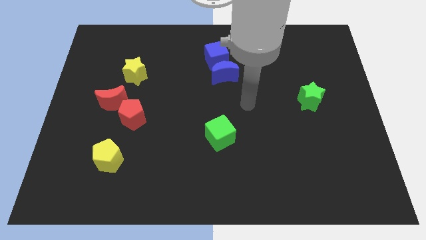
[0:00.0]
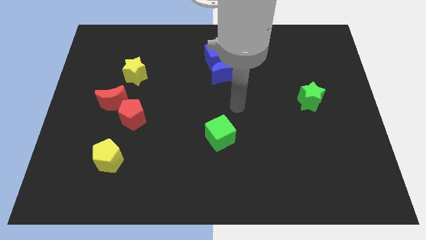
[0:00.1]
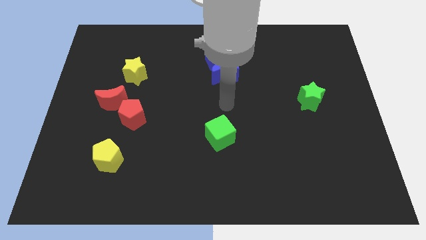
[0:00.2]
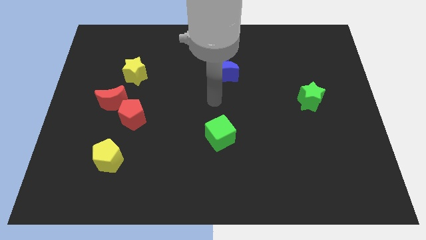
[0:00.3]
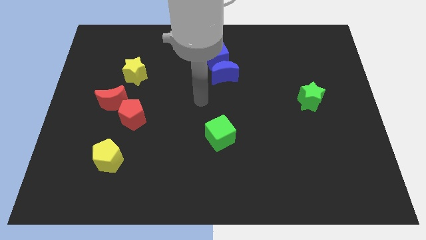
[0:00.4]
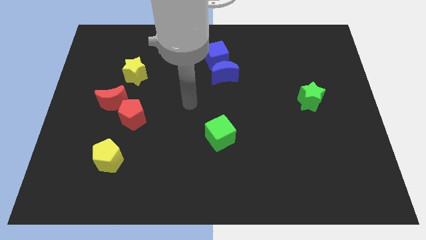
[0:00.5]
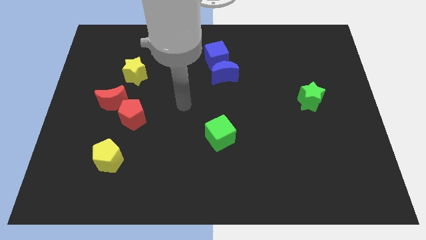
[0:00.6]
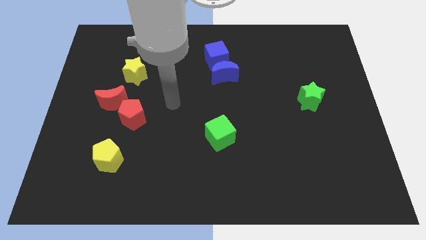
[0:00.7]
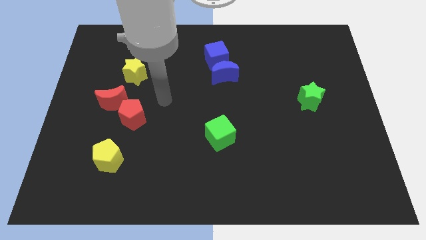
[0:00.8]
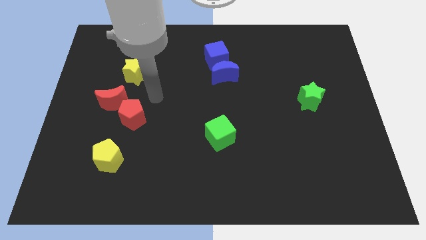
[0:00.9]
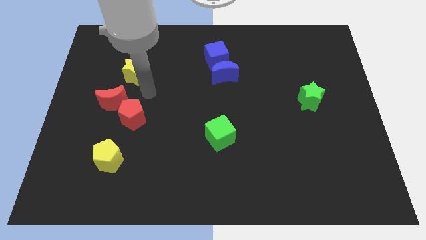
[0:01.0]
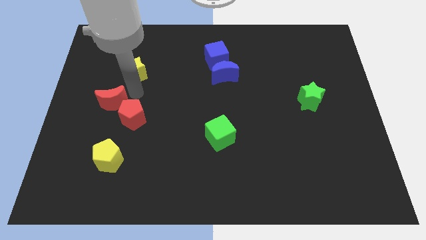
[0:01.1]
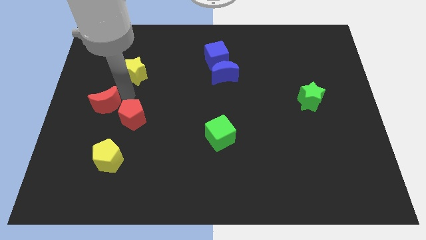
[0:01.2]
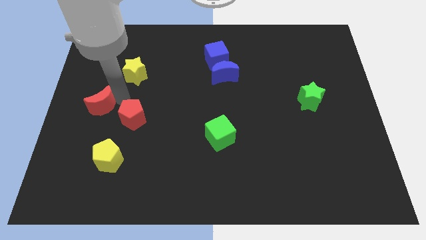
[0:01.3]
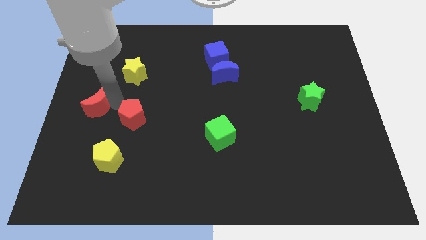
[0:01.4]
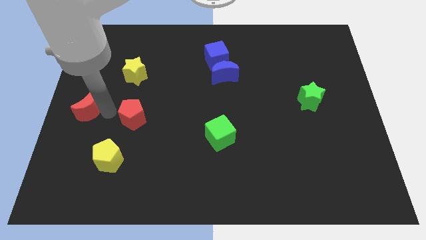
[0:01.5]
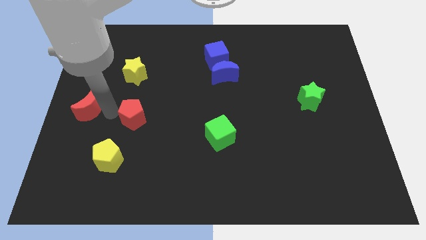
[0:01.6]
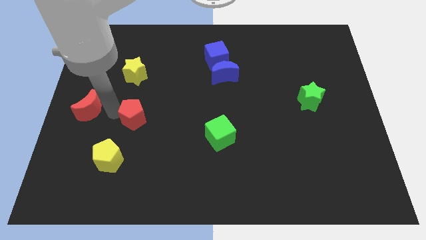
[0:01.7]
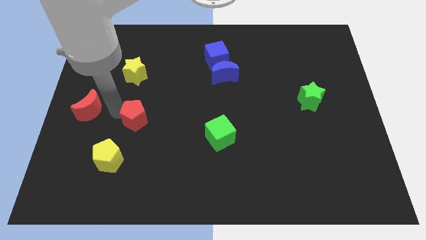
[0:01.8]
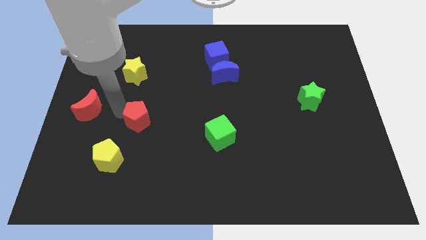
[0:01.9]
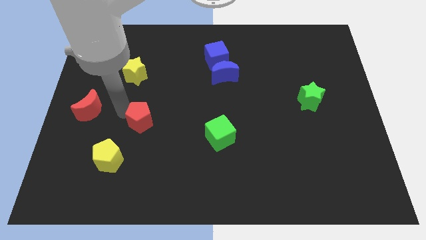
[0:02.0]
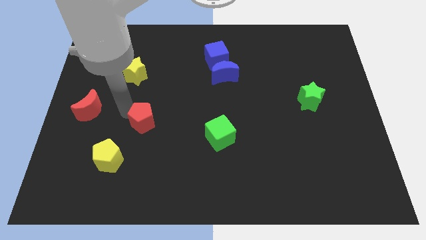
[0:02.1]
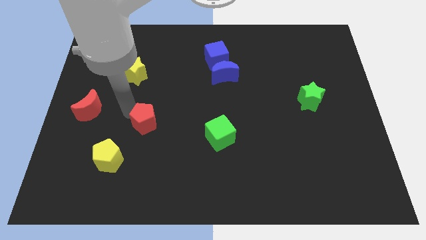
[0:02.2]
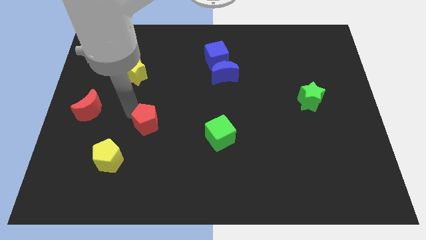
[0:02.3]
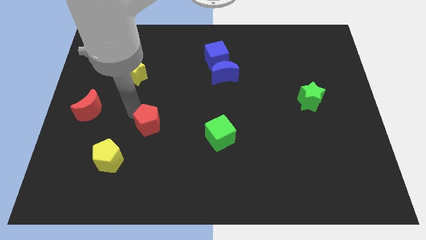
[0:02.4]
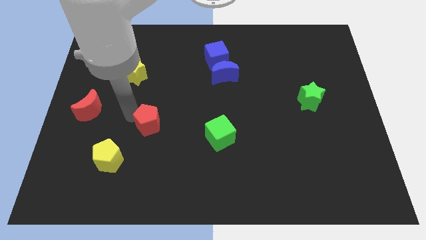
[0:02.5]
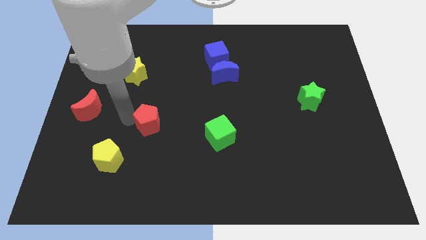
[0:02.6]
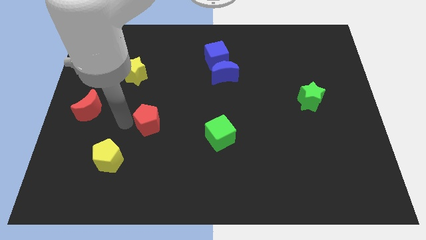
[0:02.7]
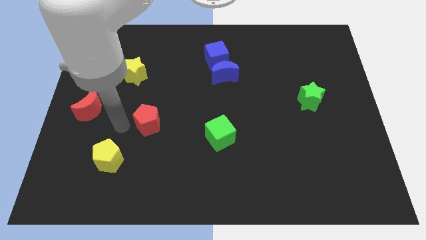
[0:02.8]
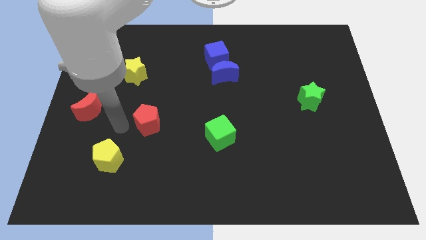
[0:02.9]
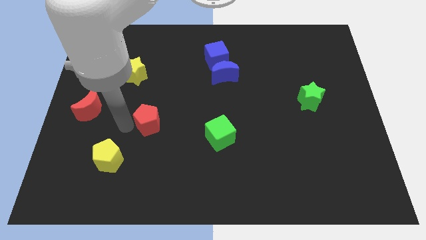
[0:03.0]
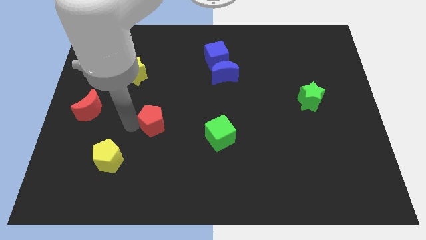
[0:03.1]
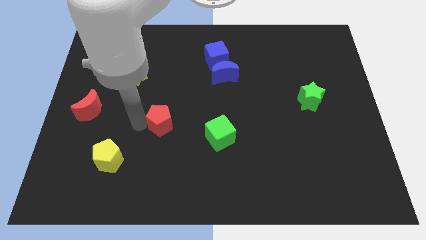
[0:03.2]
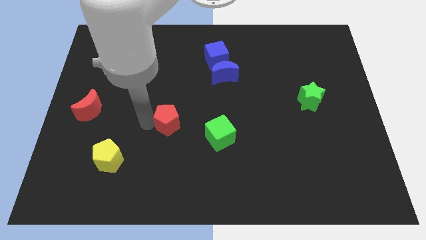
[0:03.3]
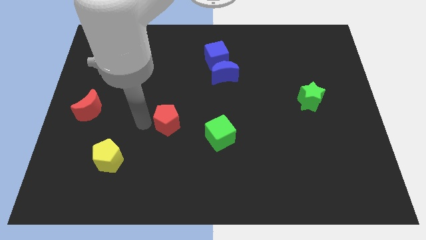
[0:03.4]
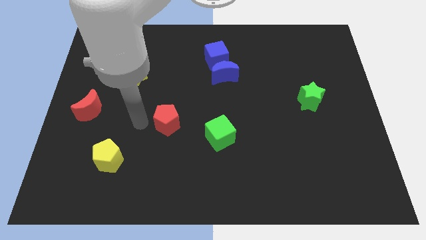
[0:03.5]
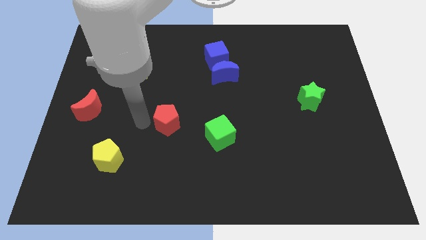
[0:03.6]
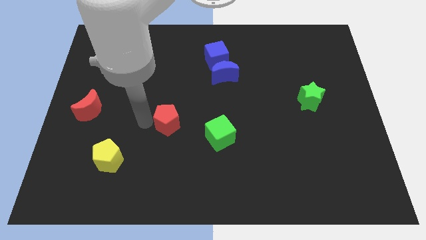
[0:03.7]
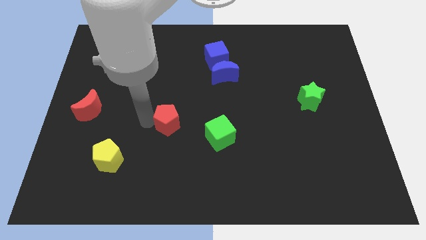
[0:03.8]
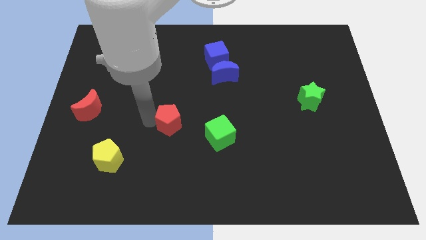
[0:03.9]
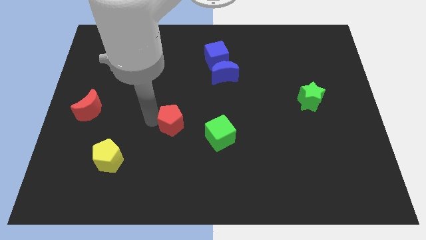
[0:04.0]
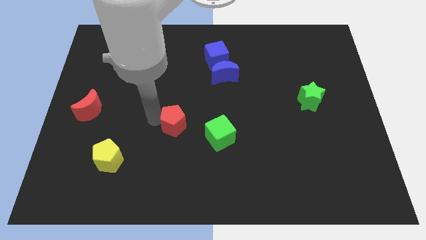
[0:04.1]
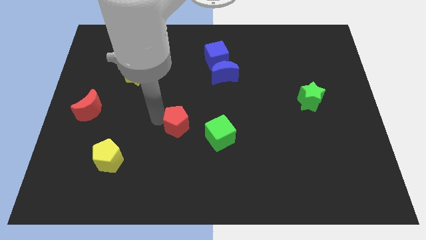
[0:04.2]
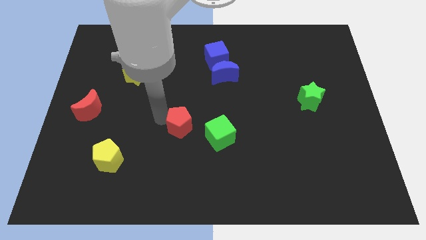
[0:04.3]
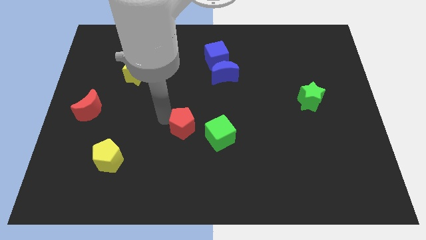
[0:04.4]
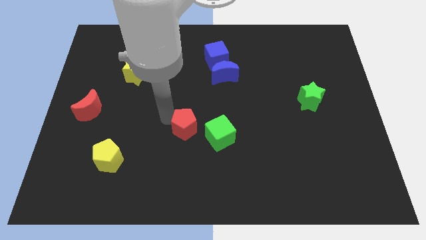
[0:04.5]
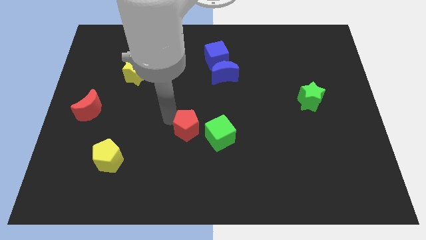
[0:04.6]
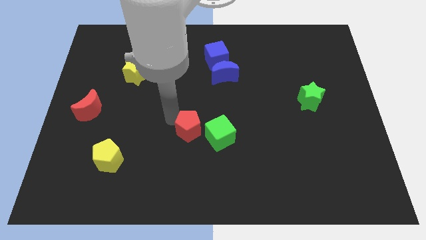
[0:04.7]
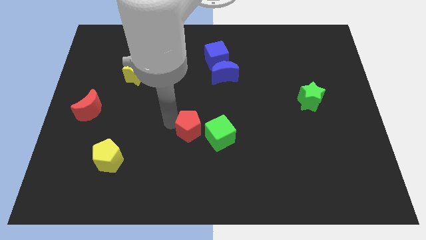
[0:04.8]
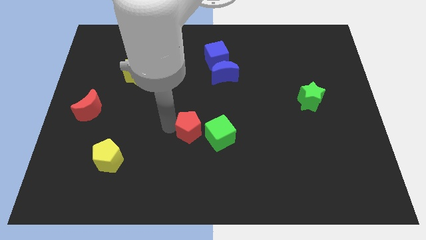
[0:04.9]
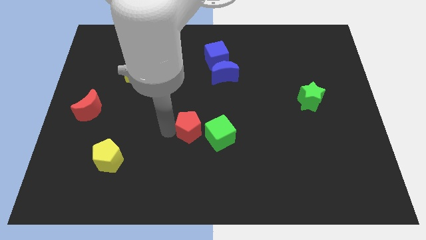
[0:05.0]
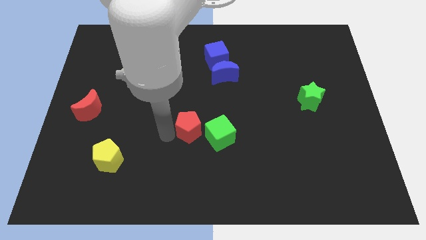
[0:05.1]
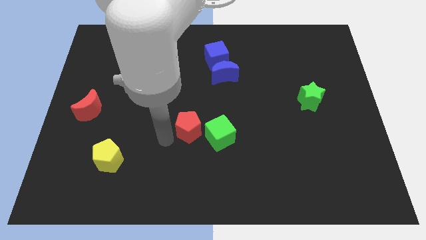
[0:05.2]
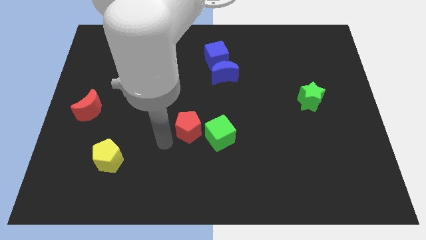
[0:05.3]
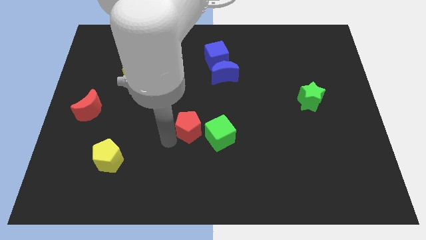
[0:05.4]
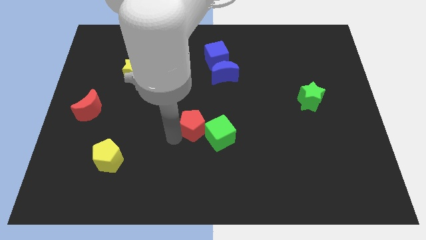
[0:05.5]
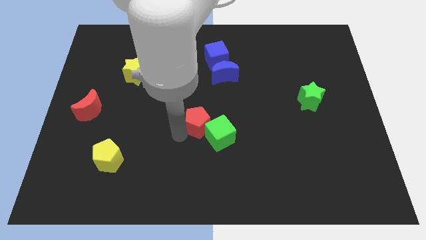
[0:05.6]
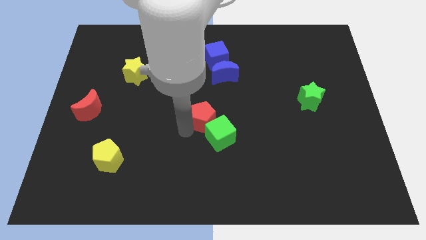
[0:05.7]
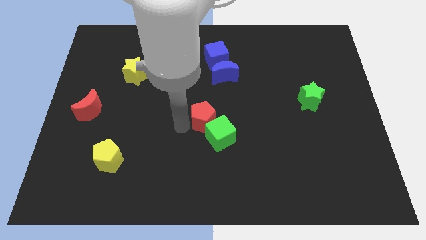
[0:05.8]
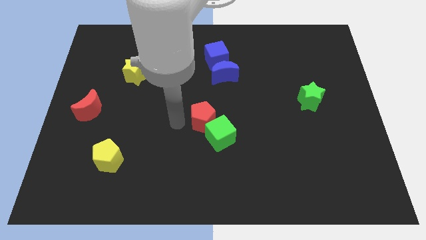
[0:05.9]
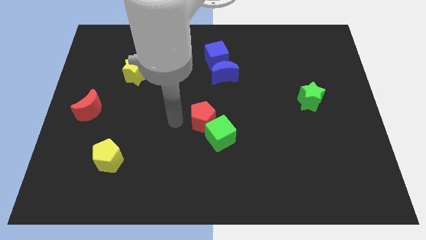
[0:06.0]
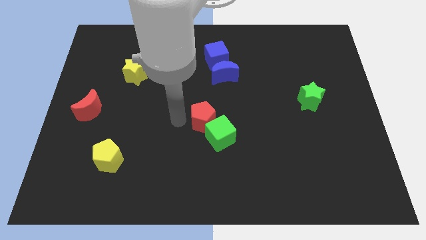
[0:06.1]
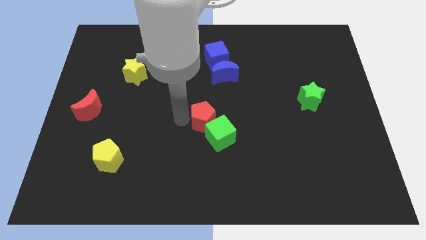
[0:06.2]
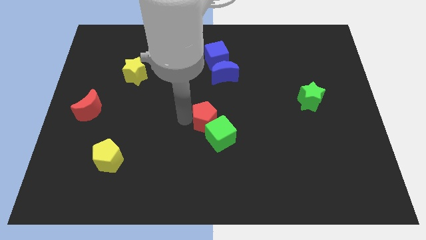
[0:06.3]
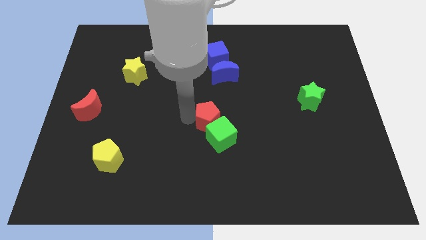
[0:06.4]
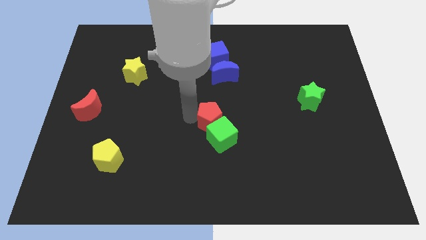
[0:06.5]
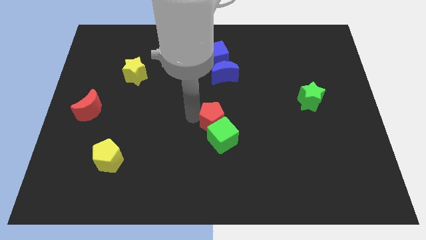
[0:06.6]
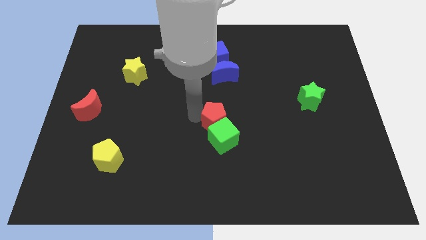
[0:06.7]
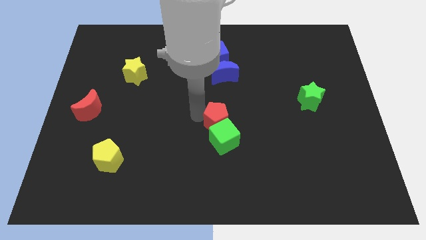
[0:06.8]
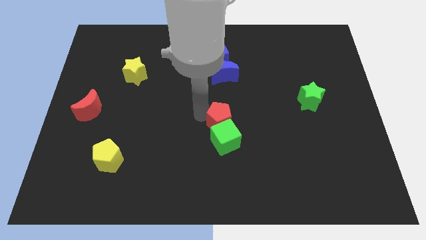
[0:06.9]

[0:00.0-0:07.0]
move the red pentagon right

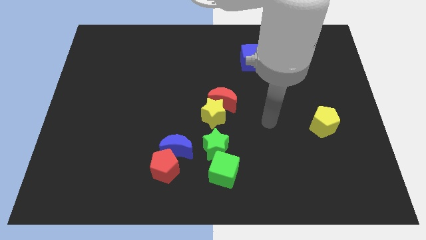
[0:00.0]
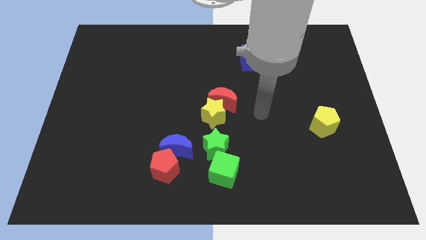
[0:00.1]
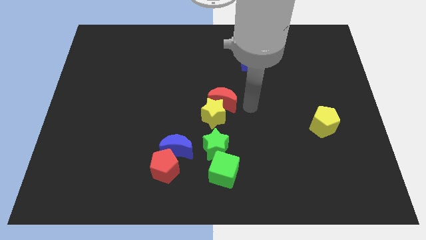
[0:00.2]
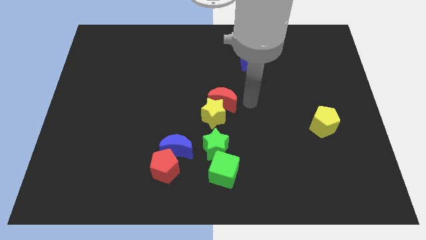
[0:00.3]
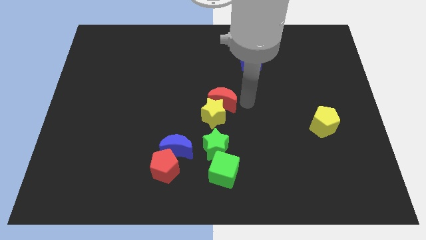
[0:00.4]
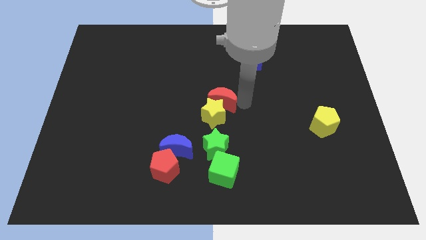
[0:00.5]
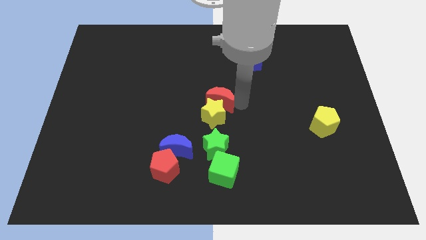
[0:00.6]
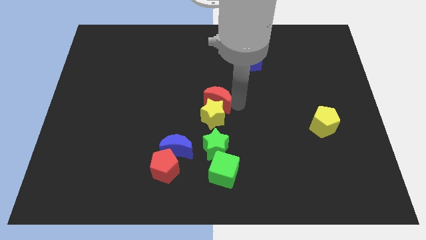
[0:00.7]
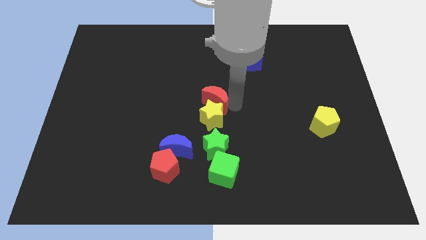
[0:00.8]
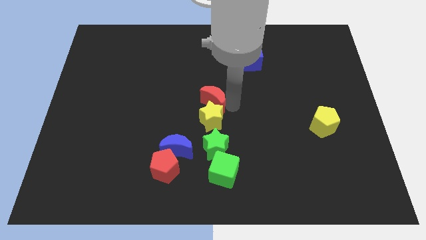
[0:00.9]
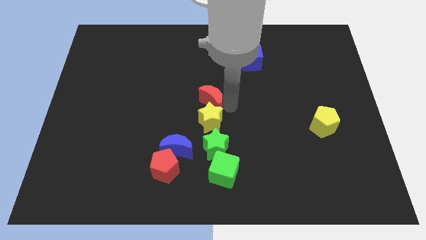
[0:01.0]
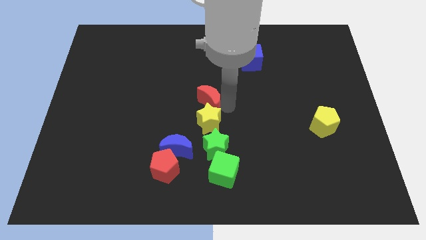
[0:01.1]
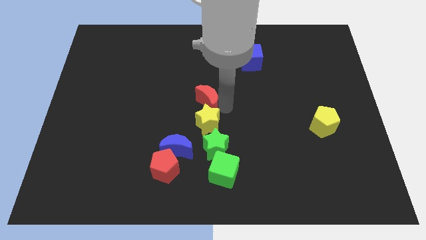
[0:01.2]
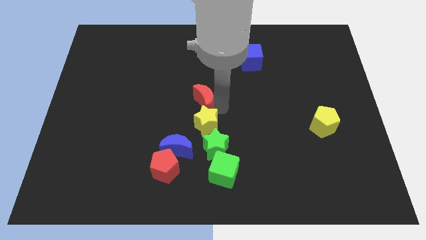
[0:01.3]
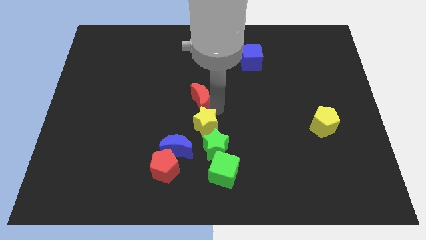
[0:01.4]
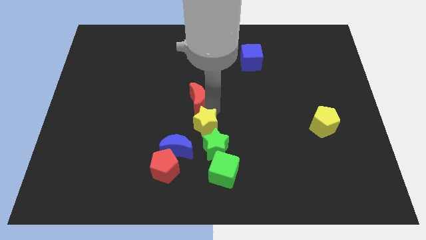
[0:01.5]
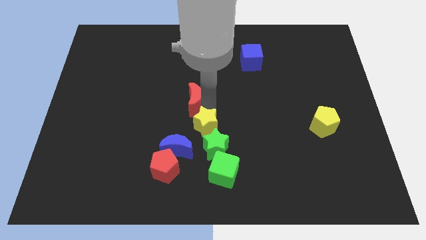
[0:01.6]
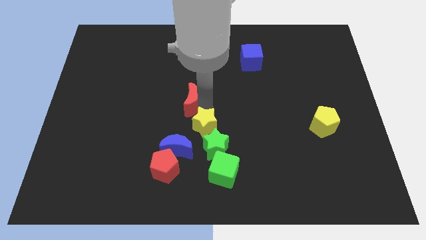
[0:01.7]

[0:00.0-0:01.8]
push the red moon slightly left
